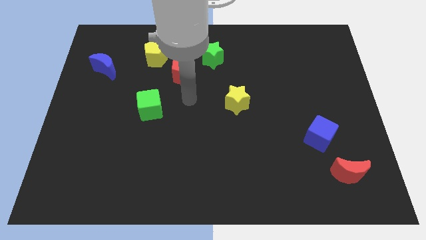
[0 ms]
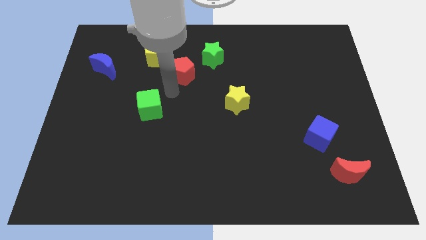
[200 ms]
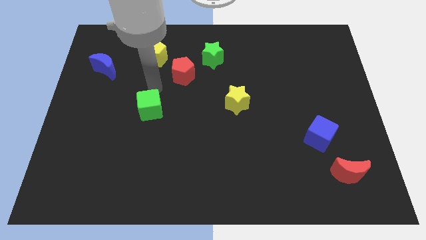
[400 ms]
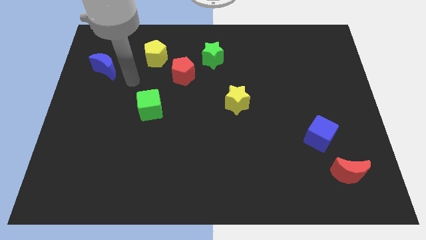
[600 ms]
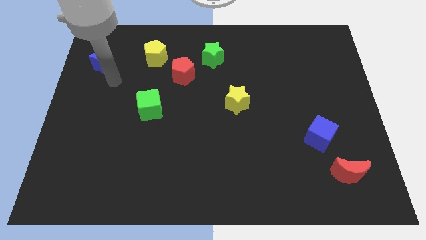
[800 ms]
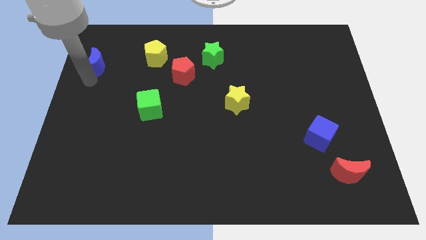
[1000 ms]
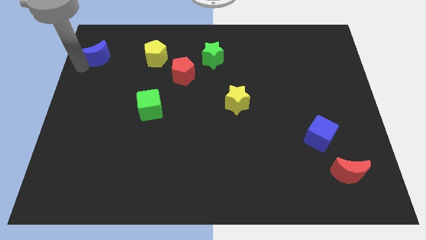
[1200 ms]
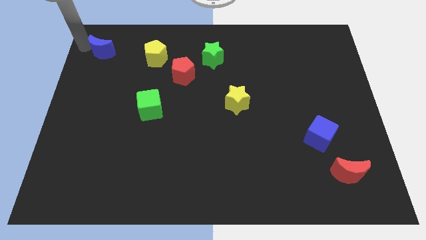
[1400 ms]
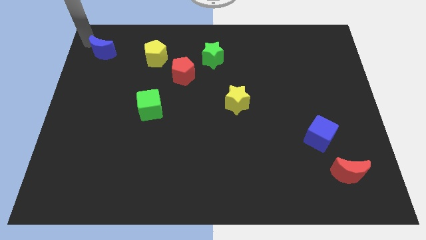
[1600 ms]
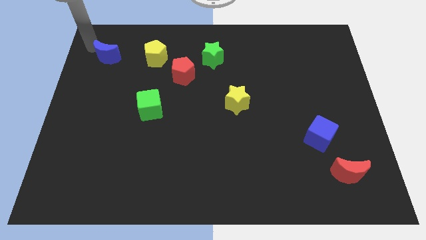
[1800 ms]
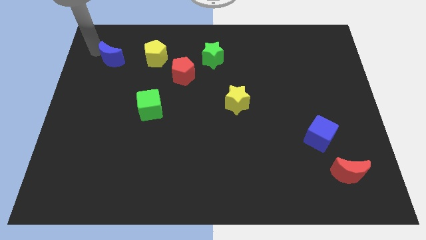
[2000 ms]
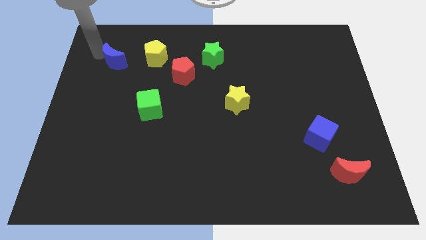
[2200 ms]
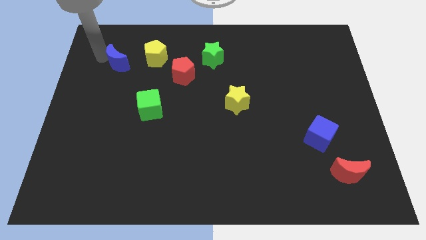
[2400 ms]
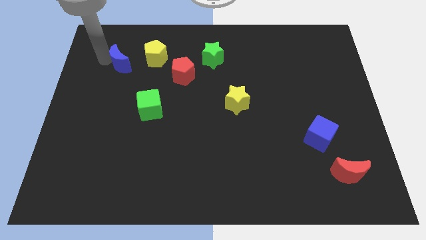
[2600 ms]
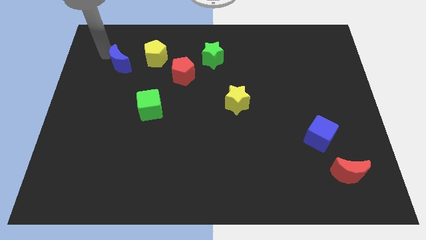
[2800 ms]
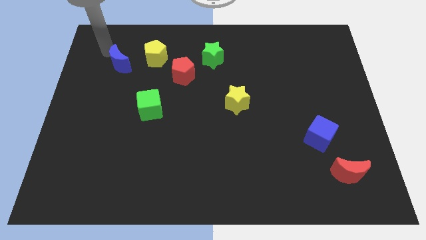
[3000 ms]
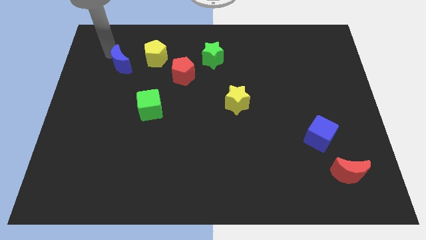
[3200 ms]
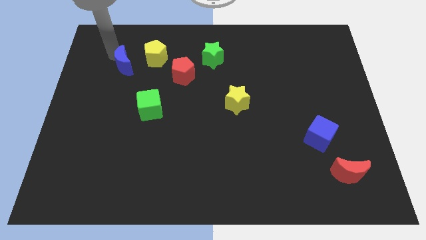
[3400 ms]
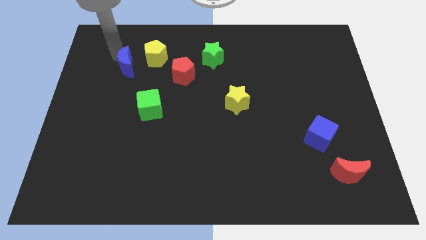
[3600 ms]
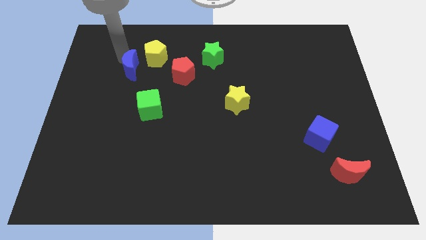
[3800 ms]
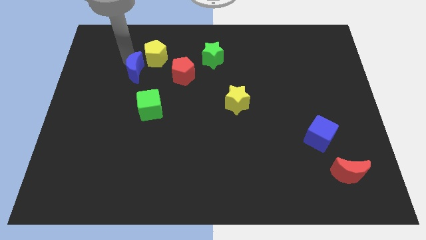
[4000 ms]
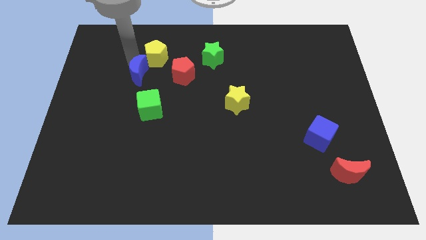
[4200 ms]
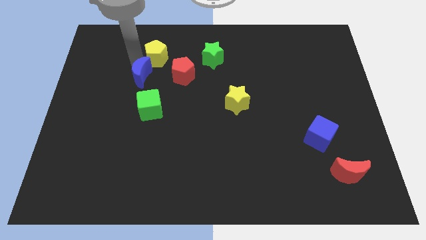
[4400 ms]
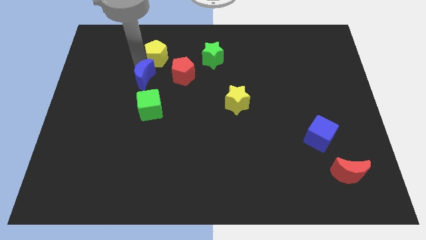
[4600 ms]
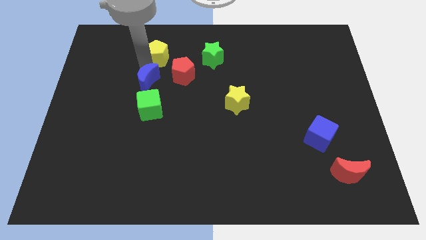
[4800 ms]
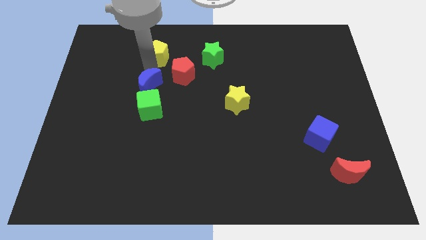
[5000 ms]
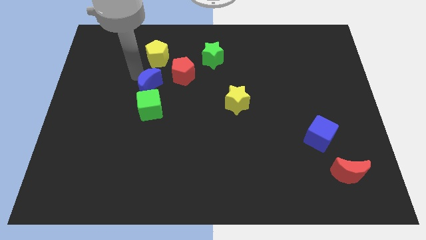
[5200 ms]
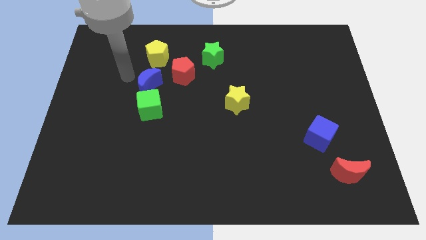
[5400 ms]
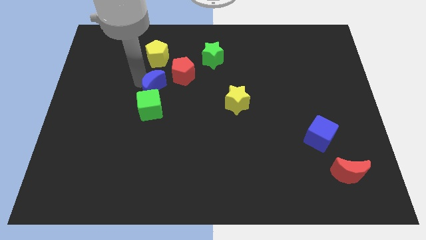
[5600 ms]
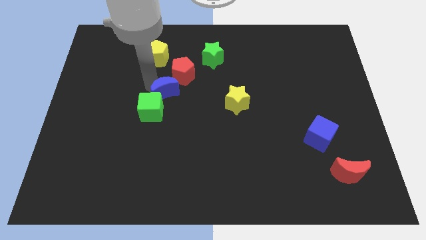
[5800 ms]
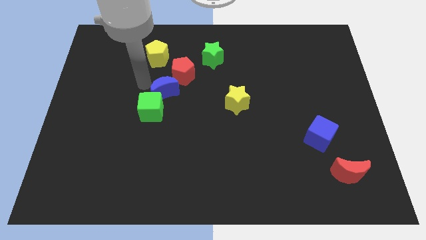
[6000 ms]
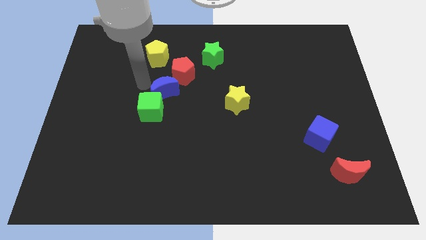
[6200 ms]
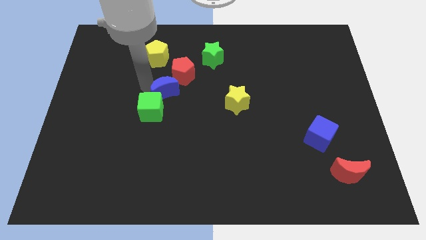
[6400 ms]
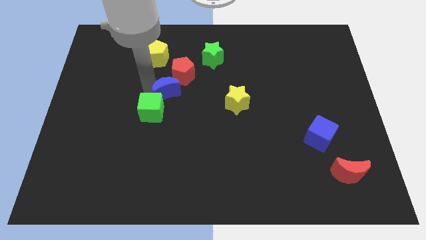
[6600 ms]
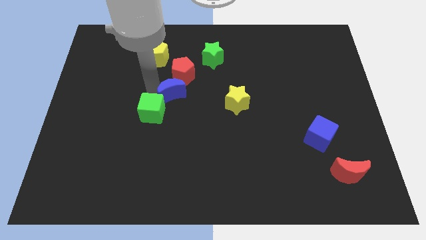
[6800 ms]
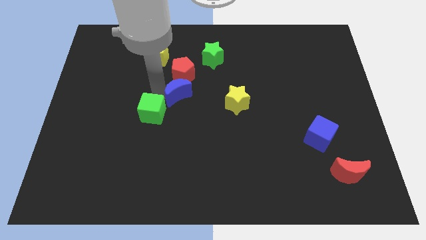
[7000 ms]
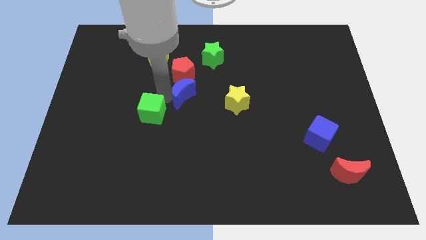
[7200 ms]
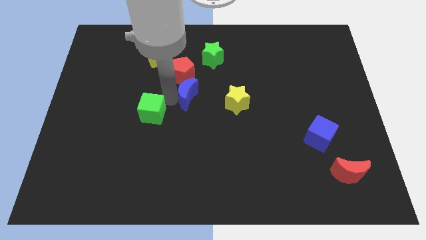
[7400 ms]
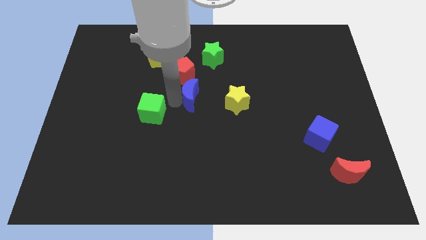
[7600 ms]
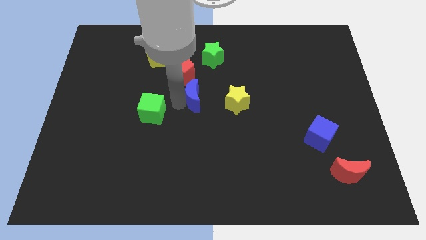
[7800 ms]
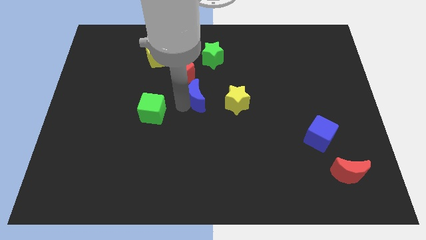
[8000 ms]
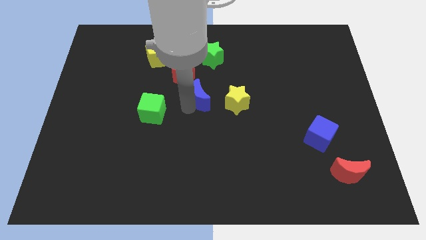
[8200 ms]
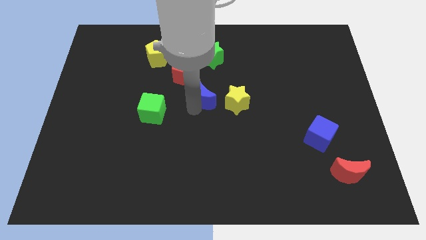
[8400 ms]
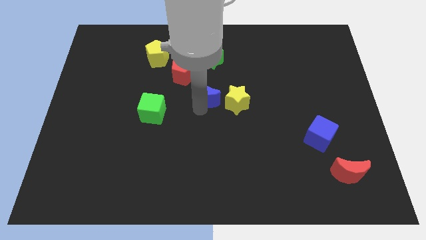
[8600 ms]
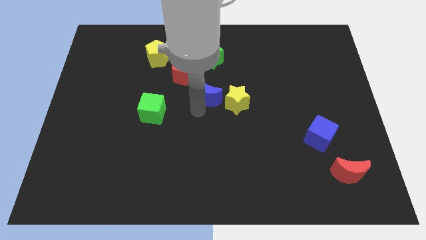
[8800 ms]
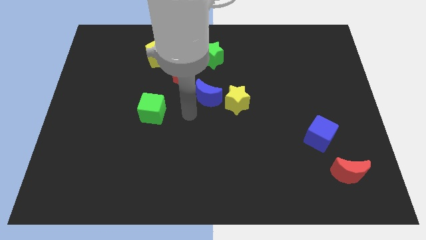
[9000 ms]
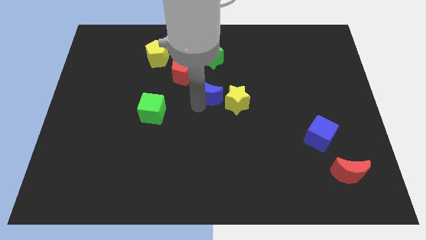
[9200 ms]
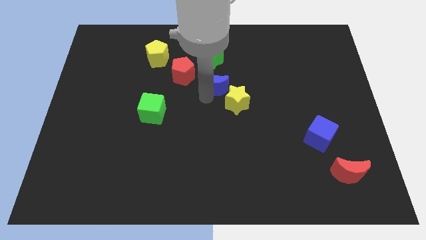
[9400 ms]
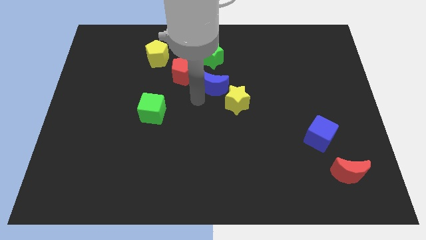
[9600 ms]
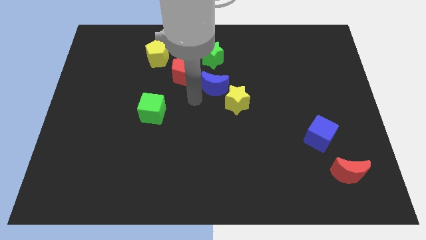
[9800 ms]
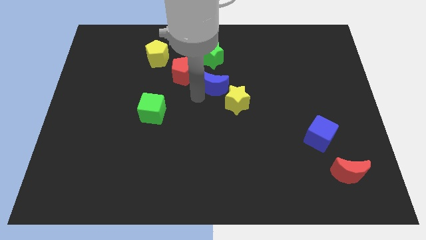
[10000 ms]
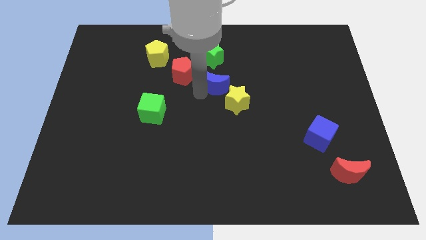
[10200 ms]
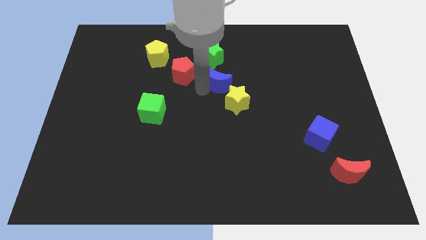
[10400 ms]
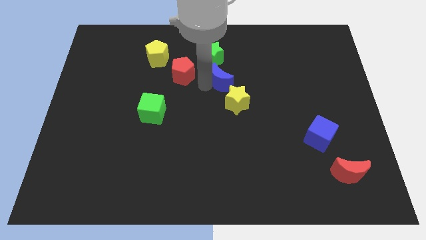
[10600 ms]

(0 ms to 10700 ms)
push the blue moon to the bottom right side of the green star
